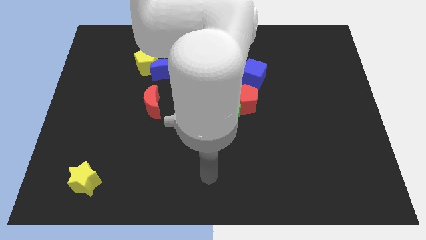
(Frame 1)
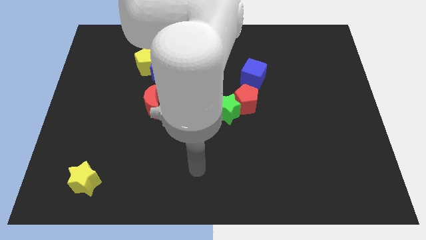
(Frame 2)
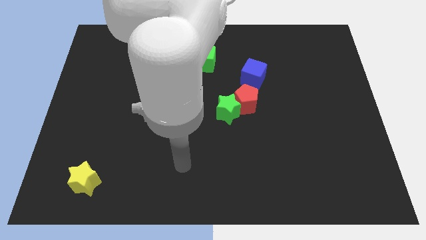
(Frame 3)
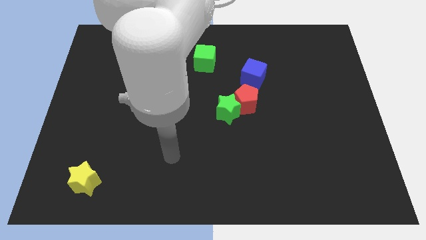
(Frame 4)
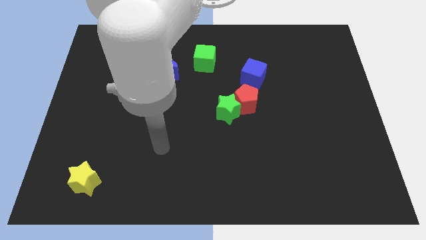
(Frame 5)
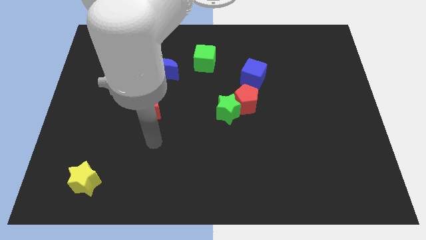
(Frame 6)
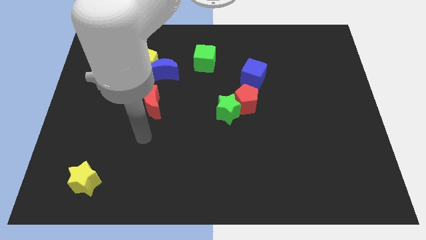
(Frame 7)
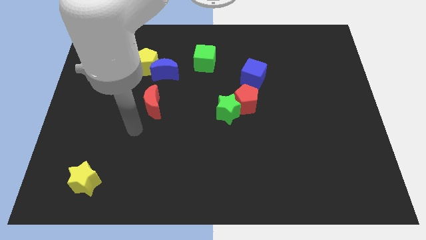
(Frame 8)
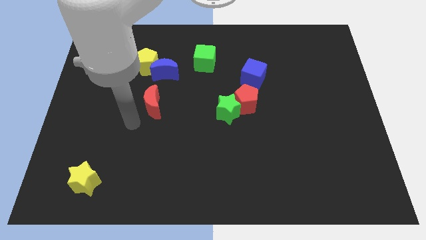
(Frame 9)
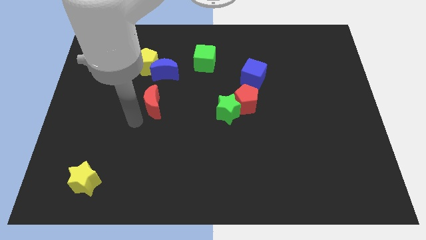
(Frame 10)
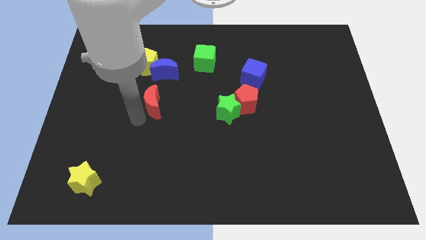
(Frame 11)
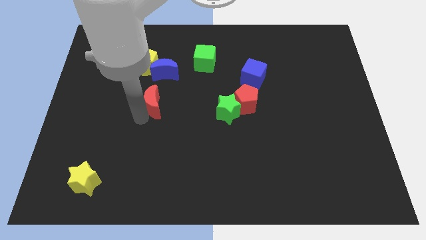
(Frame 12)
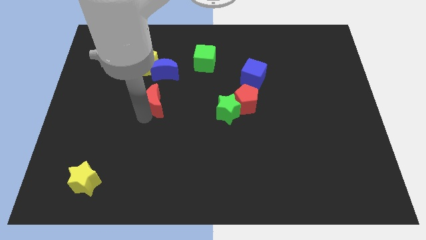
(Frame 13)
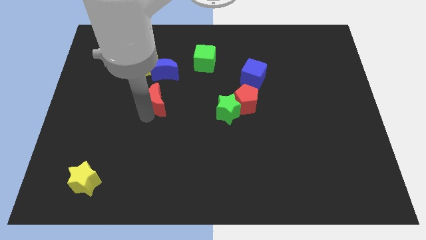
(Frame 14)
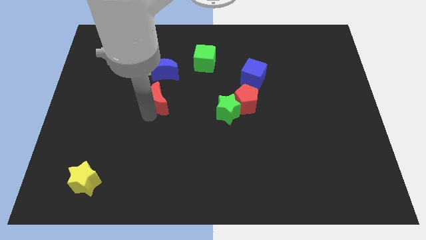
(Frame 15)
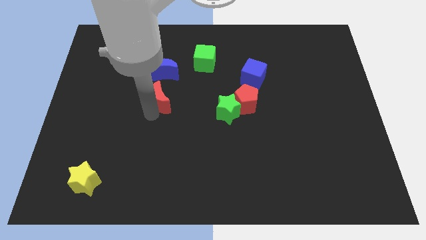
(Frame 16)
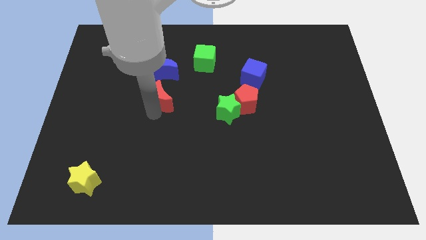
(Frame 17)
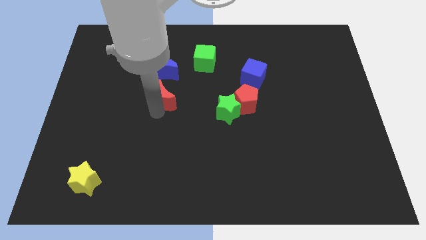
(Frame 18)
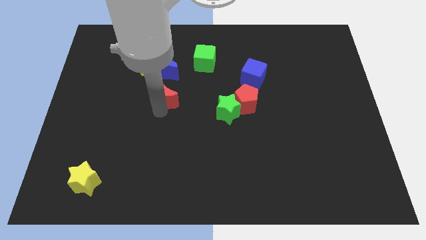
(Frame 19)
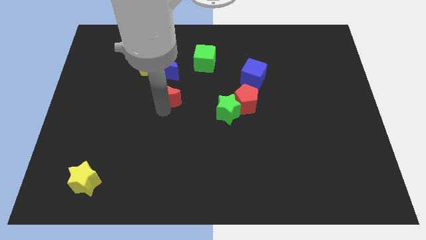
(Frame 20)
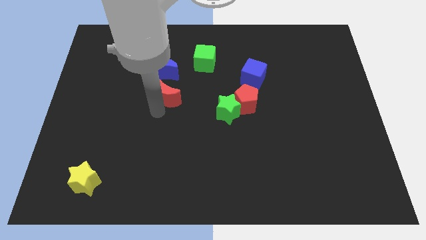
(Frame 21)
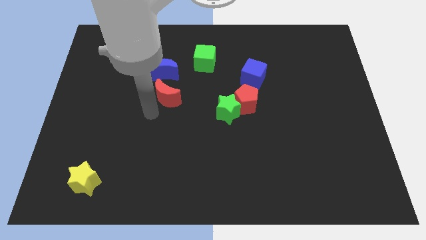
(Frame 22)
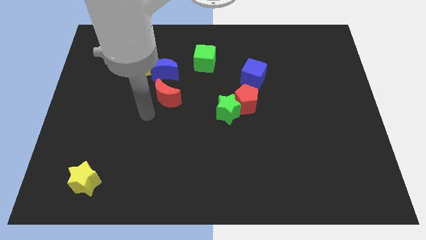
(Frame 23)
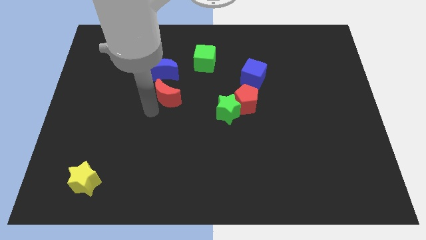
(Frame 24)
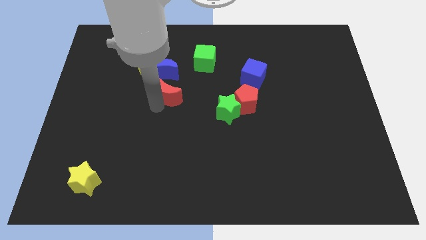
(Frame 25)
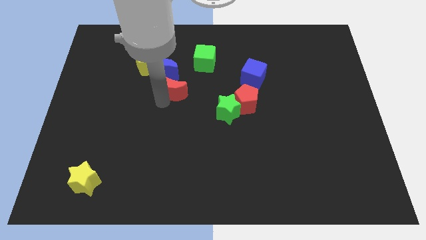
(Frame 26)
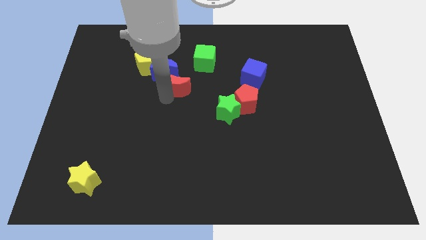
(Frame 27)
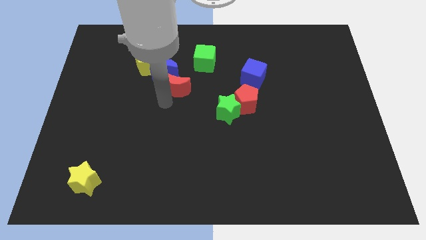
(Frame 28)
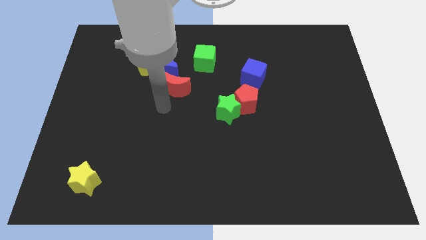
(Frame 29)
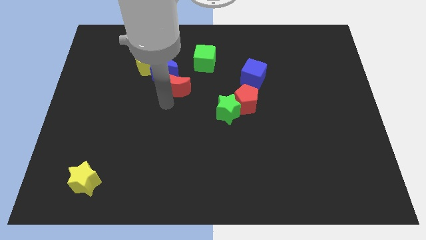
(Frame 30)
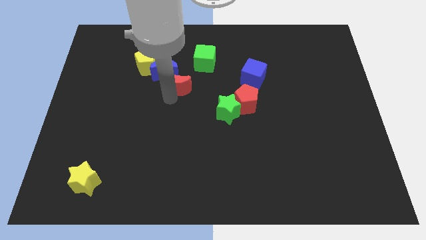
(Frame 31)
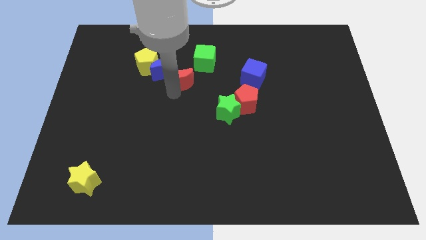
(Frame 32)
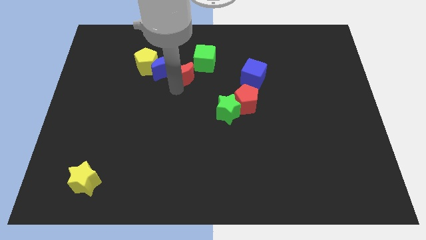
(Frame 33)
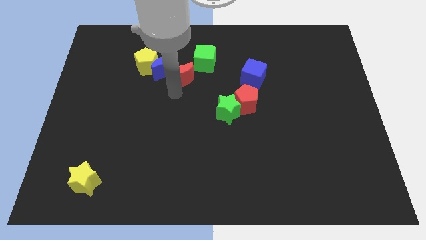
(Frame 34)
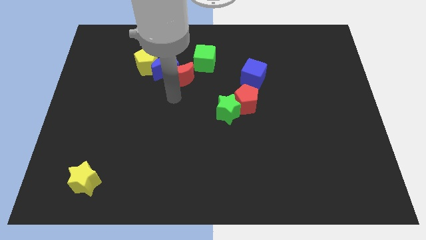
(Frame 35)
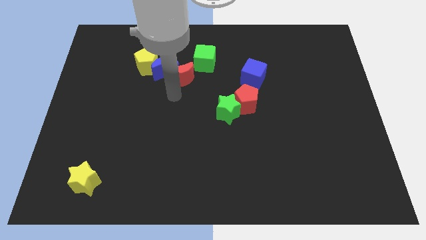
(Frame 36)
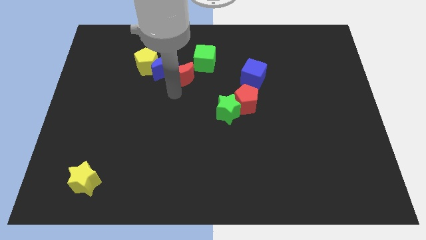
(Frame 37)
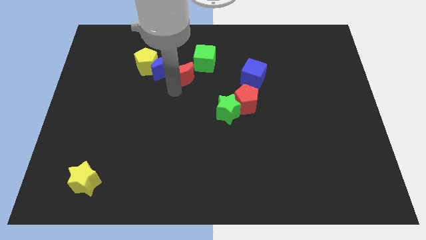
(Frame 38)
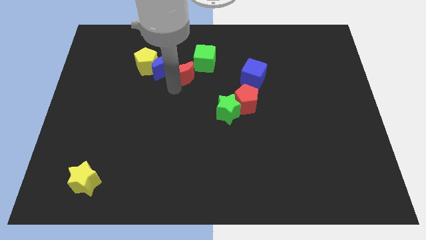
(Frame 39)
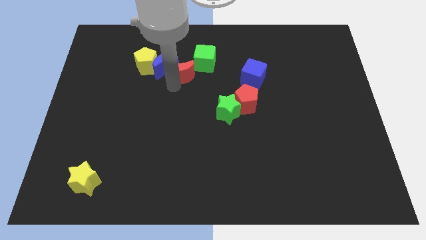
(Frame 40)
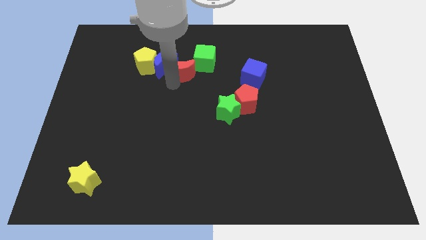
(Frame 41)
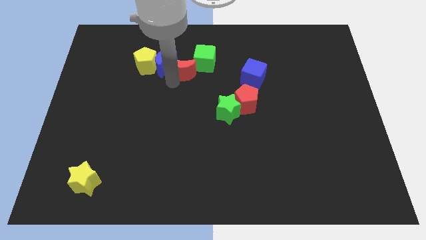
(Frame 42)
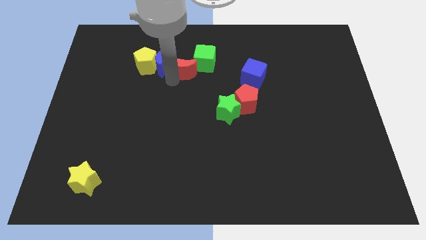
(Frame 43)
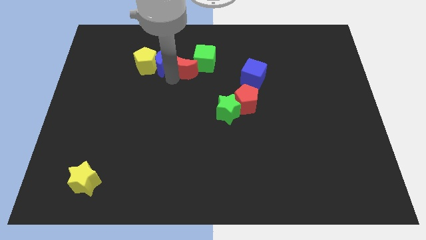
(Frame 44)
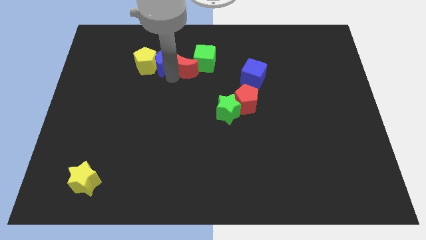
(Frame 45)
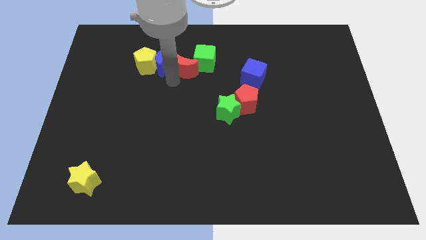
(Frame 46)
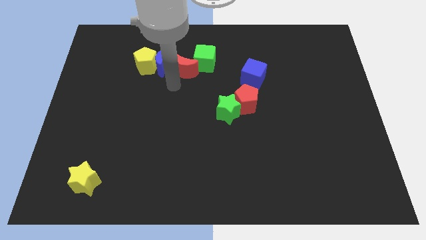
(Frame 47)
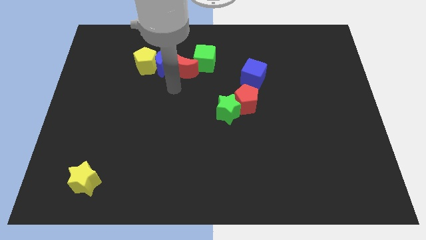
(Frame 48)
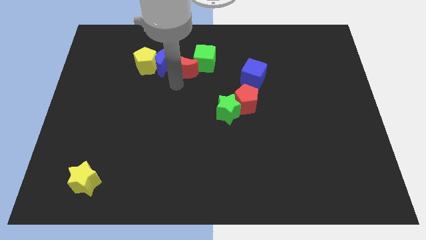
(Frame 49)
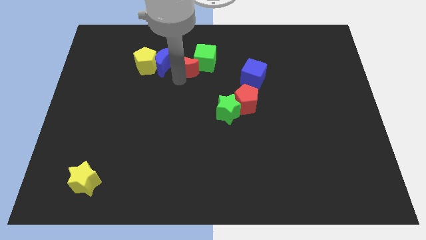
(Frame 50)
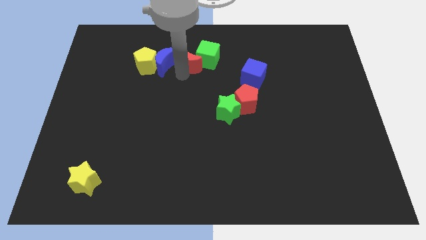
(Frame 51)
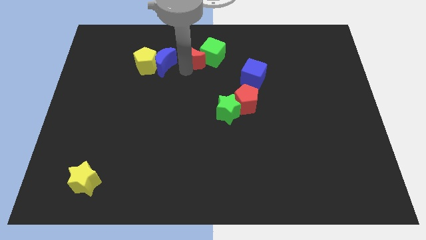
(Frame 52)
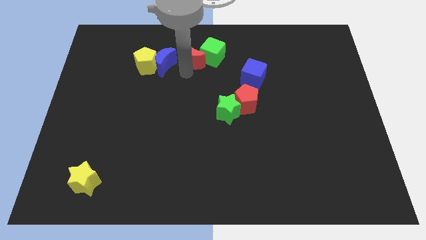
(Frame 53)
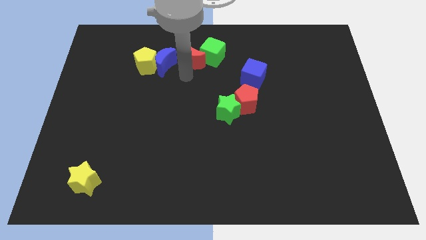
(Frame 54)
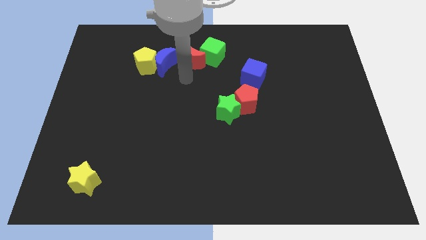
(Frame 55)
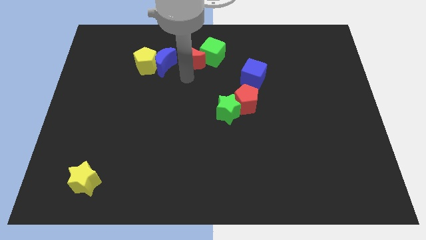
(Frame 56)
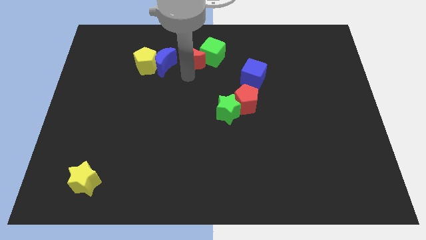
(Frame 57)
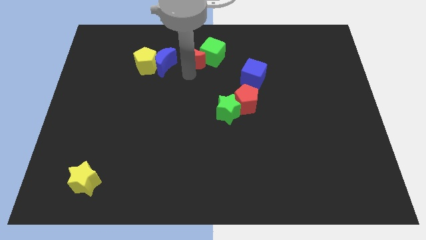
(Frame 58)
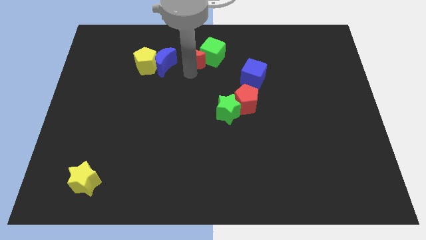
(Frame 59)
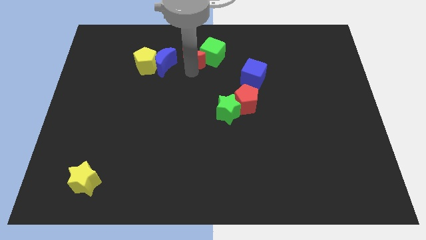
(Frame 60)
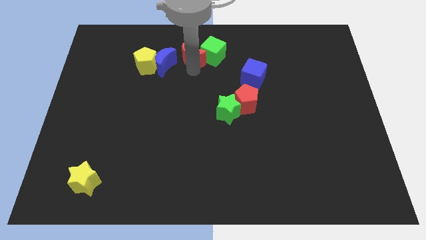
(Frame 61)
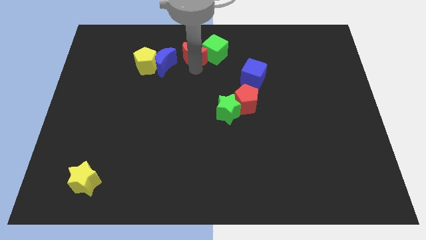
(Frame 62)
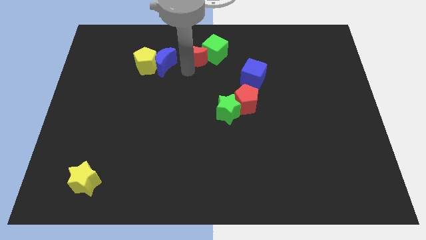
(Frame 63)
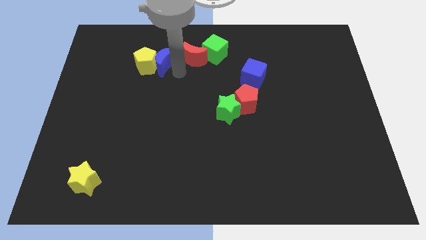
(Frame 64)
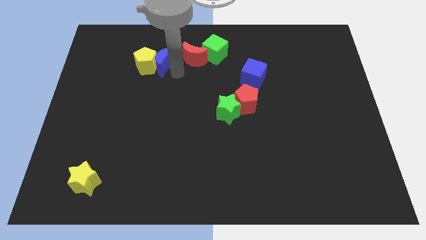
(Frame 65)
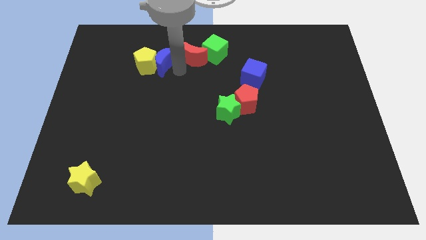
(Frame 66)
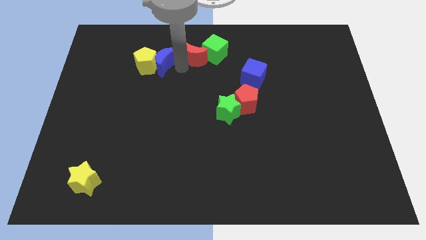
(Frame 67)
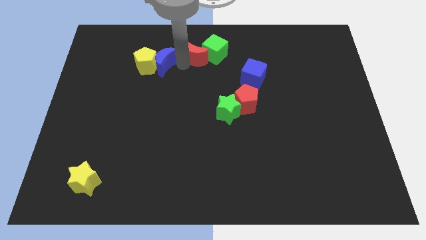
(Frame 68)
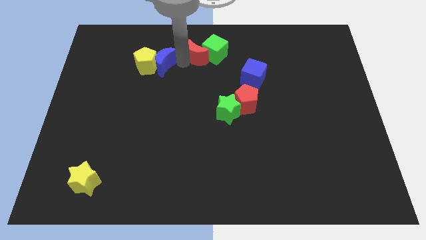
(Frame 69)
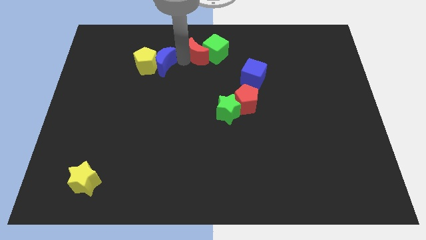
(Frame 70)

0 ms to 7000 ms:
move the red moon to the top
